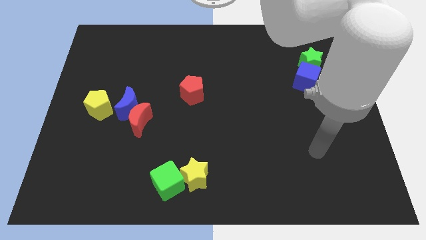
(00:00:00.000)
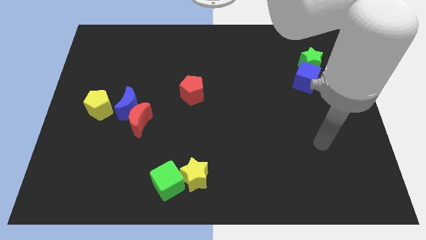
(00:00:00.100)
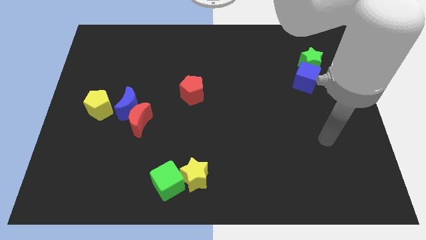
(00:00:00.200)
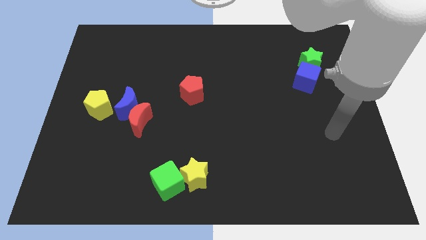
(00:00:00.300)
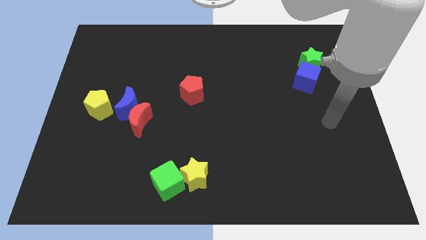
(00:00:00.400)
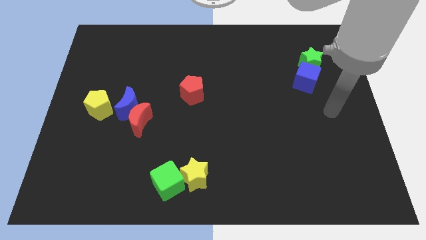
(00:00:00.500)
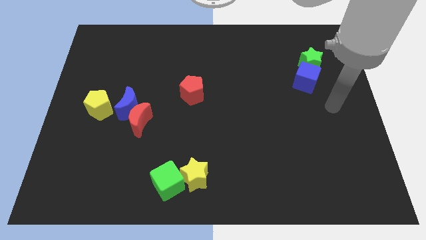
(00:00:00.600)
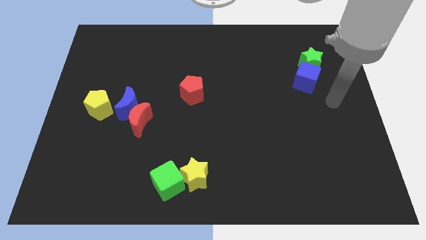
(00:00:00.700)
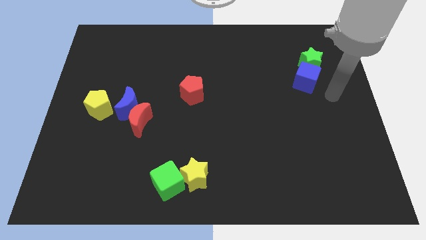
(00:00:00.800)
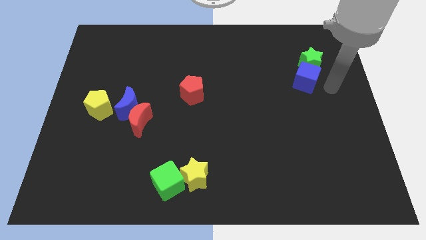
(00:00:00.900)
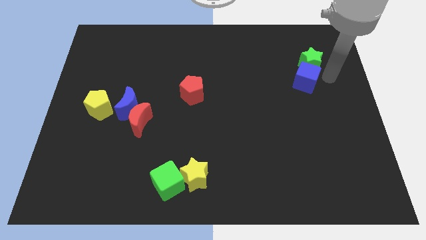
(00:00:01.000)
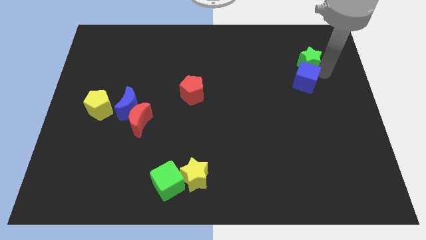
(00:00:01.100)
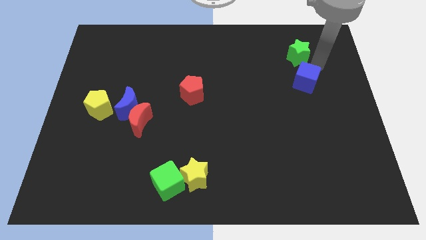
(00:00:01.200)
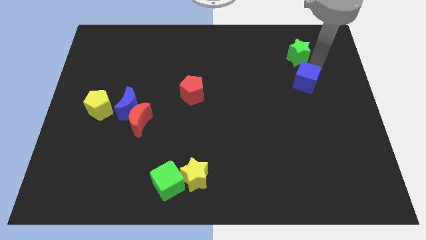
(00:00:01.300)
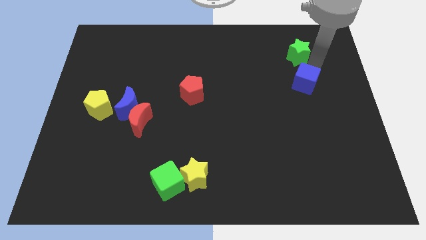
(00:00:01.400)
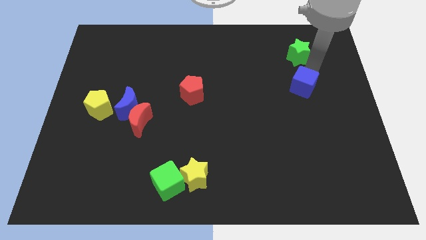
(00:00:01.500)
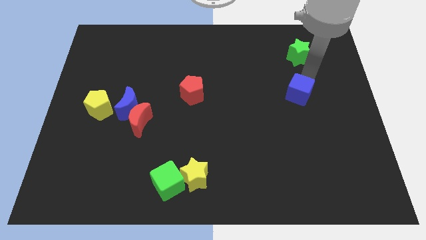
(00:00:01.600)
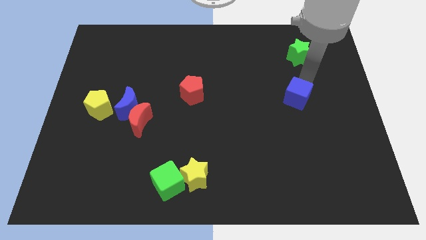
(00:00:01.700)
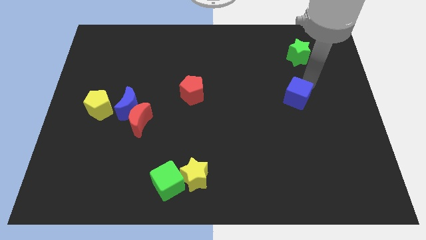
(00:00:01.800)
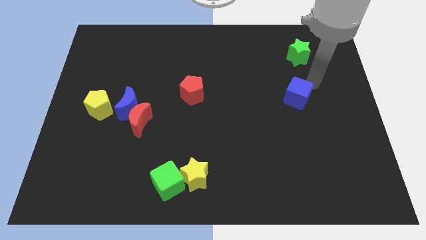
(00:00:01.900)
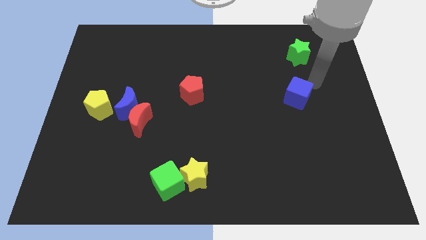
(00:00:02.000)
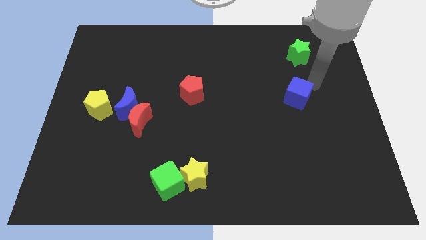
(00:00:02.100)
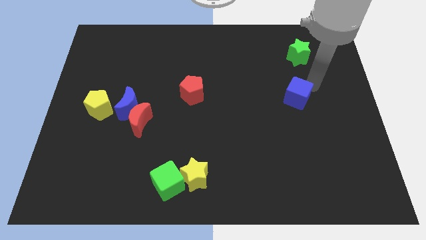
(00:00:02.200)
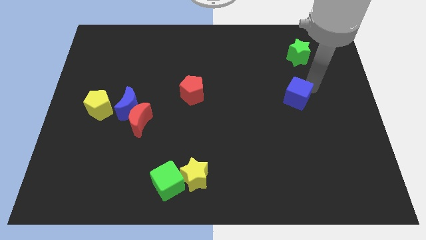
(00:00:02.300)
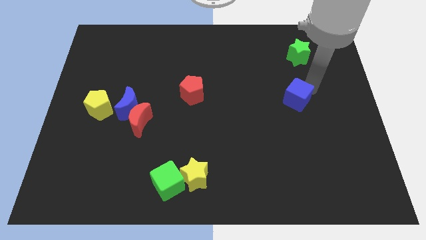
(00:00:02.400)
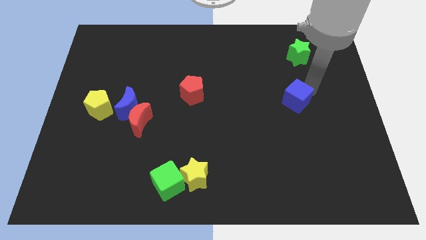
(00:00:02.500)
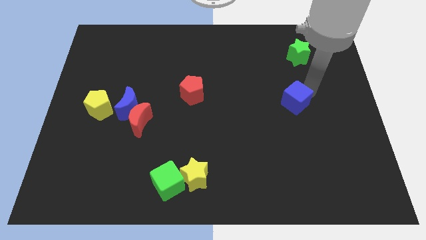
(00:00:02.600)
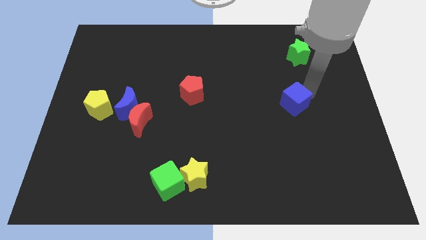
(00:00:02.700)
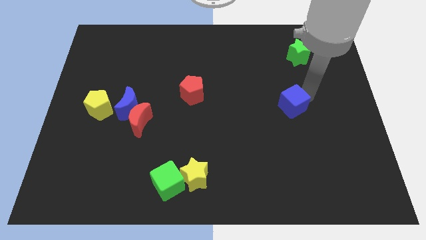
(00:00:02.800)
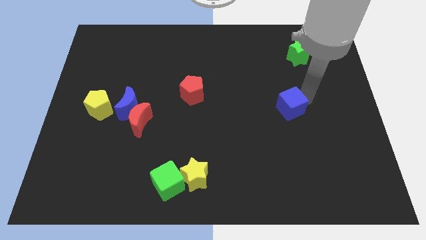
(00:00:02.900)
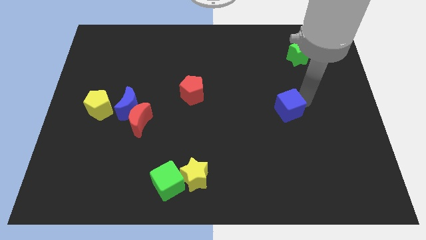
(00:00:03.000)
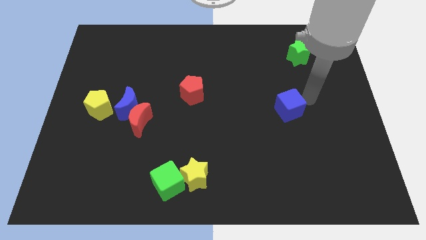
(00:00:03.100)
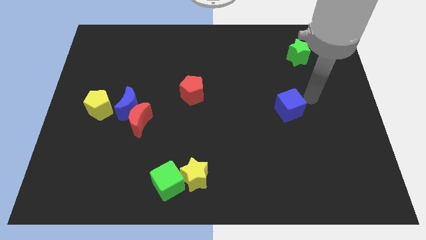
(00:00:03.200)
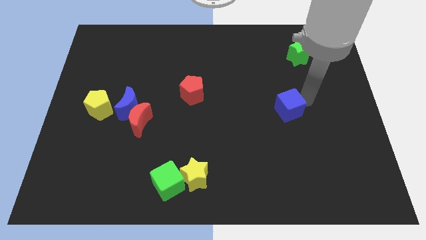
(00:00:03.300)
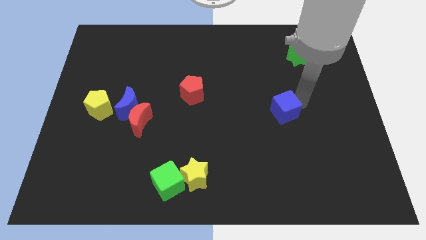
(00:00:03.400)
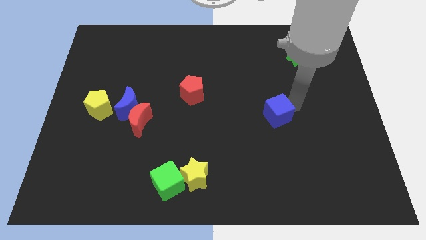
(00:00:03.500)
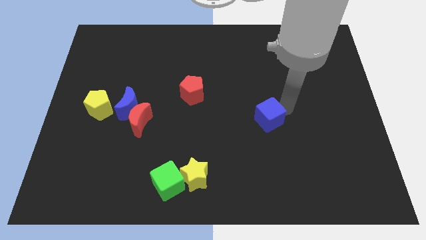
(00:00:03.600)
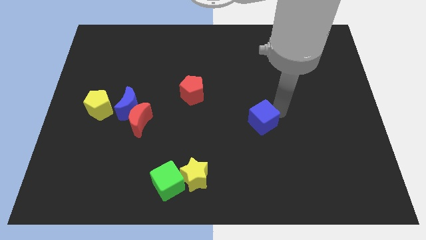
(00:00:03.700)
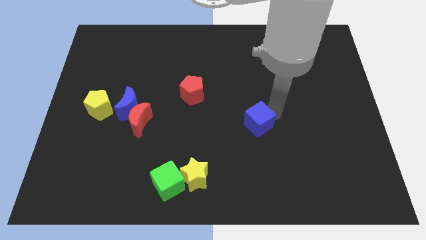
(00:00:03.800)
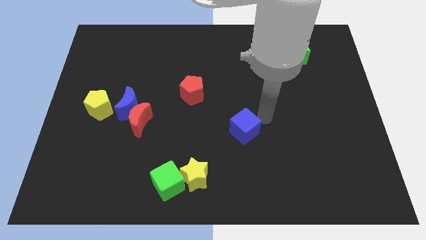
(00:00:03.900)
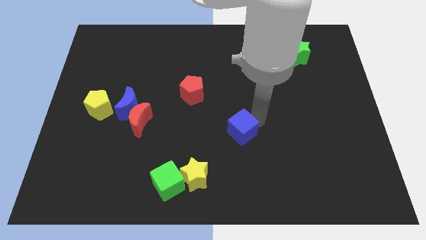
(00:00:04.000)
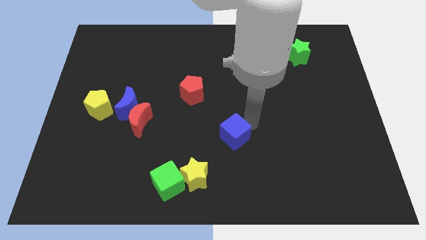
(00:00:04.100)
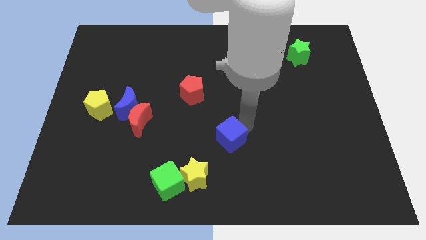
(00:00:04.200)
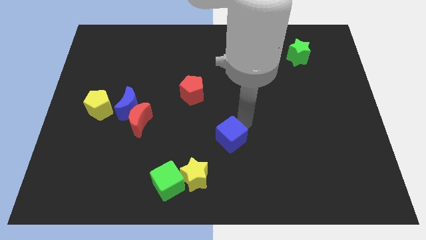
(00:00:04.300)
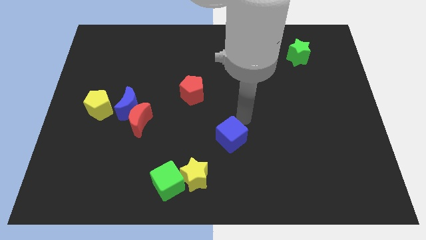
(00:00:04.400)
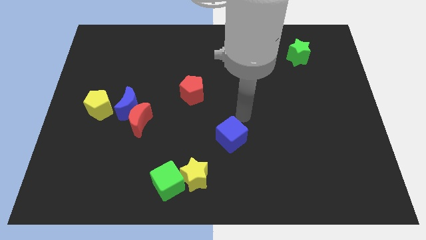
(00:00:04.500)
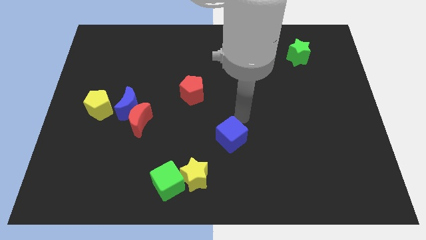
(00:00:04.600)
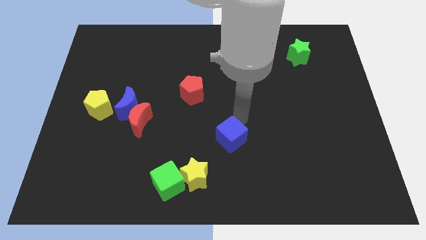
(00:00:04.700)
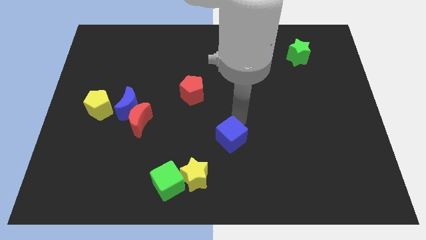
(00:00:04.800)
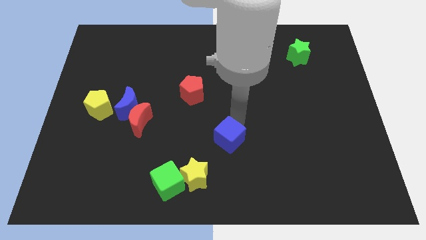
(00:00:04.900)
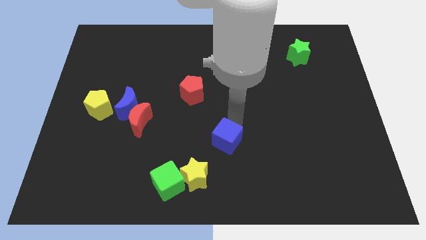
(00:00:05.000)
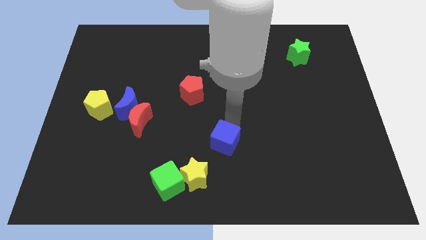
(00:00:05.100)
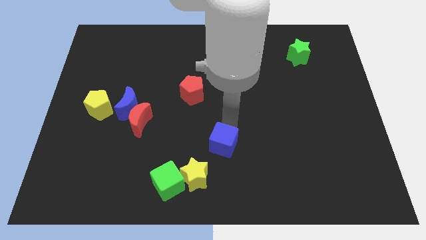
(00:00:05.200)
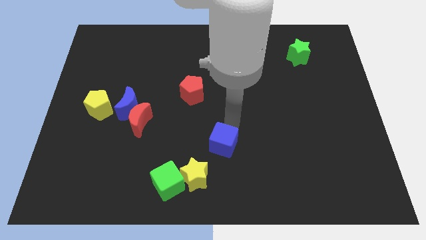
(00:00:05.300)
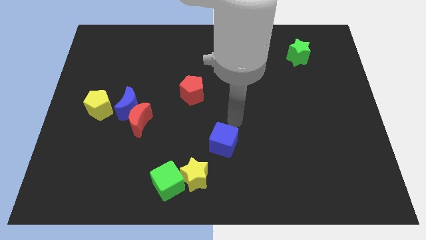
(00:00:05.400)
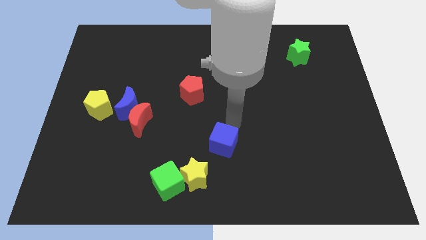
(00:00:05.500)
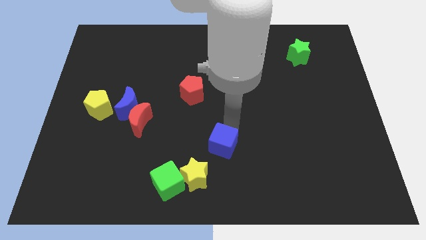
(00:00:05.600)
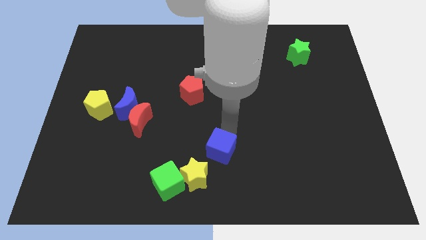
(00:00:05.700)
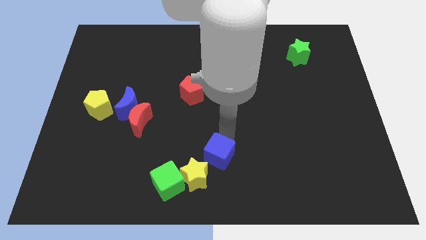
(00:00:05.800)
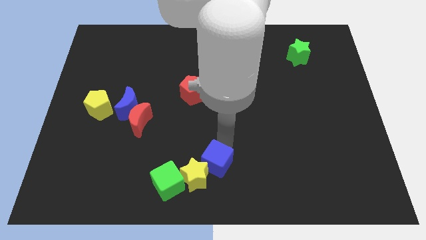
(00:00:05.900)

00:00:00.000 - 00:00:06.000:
push the blue cube towards the yellow star

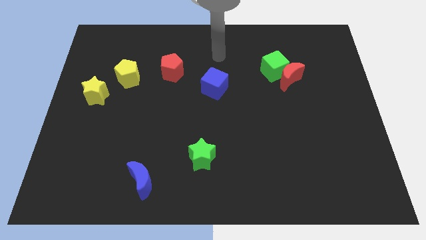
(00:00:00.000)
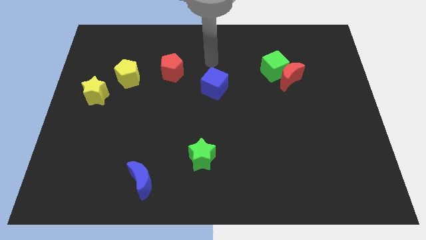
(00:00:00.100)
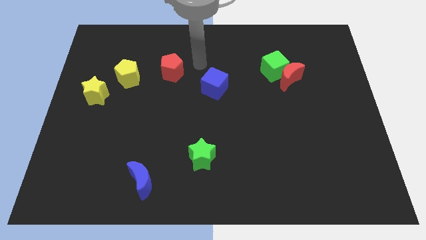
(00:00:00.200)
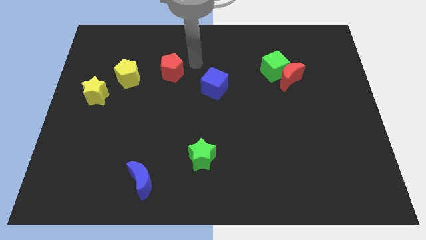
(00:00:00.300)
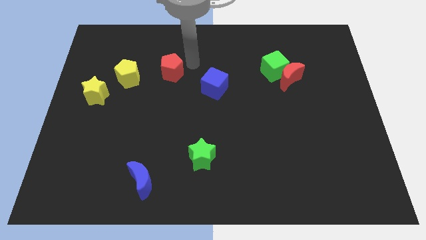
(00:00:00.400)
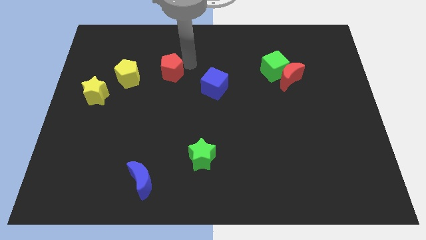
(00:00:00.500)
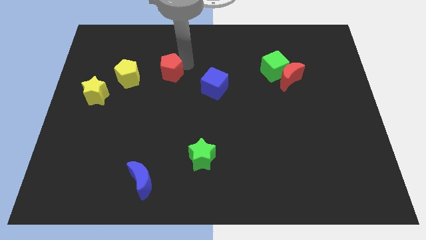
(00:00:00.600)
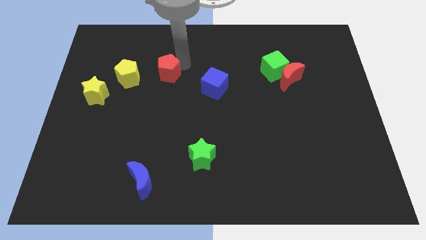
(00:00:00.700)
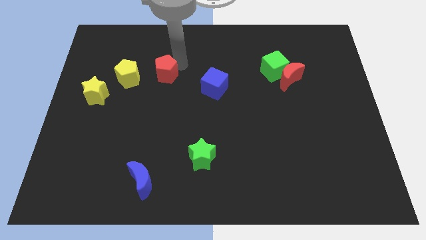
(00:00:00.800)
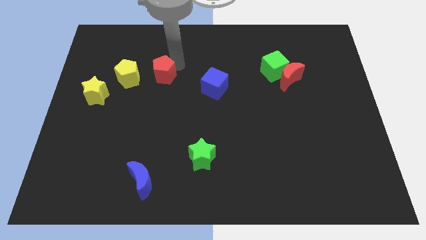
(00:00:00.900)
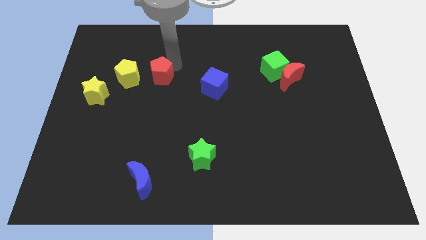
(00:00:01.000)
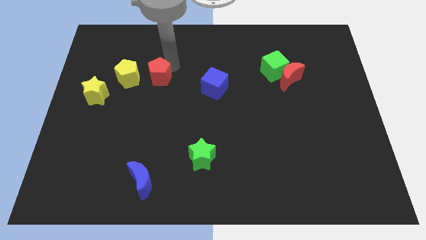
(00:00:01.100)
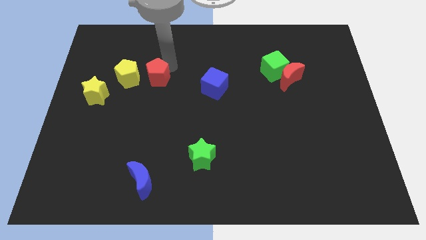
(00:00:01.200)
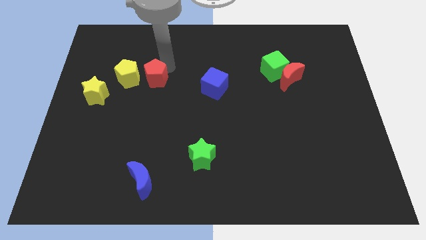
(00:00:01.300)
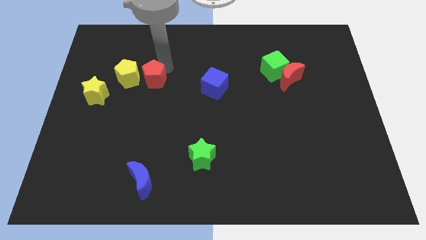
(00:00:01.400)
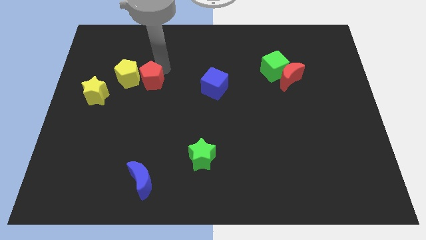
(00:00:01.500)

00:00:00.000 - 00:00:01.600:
move the red pentagon close to the yellow pentagon
